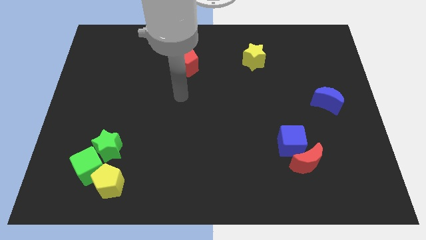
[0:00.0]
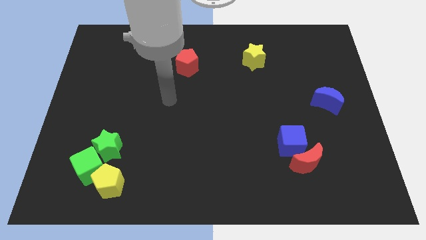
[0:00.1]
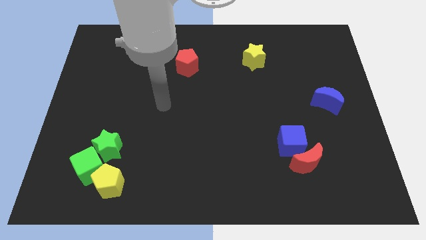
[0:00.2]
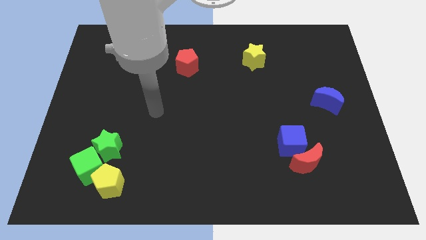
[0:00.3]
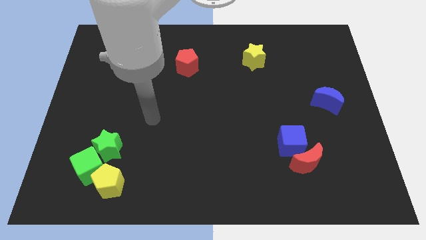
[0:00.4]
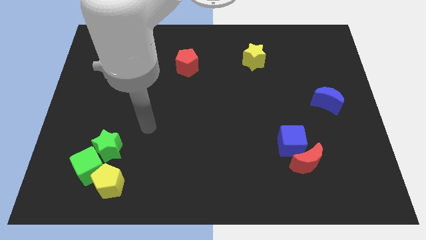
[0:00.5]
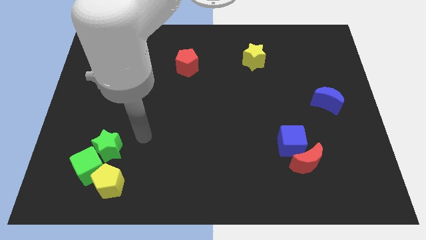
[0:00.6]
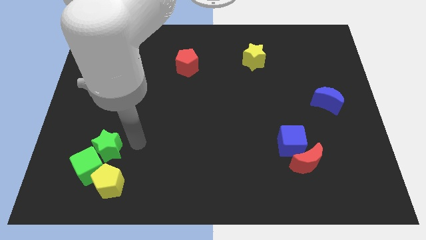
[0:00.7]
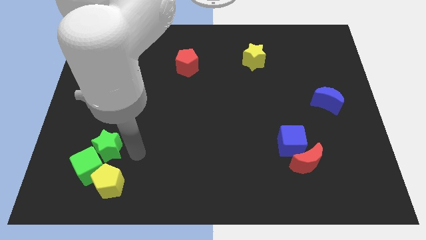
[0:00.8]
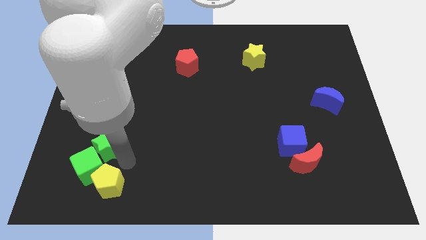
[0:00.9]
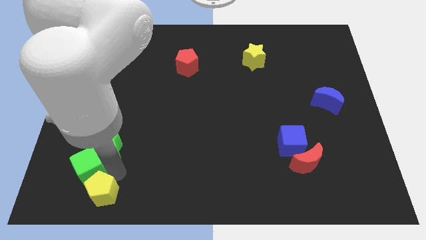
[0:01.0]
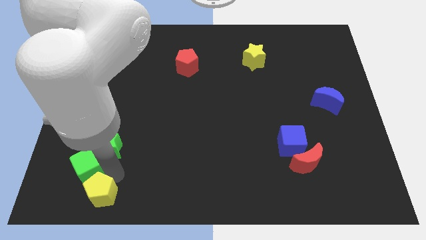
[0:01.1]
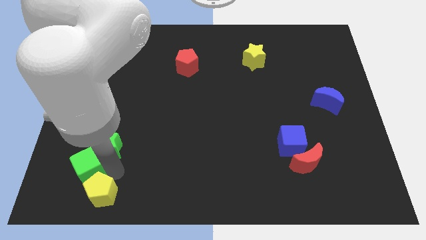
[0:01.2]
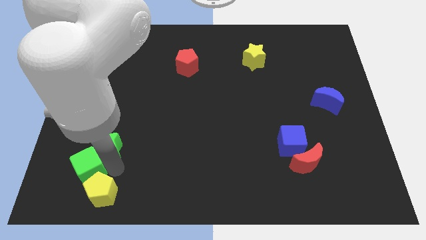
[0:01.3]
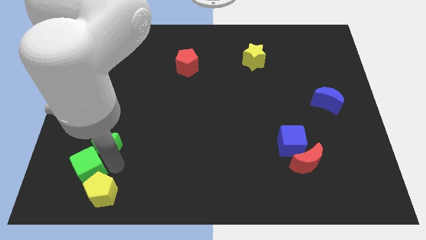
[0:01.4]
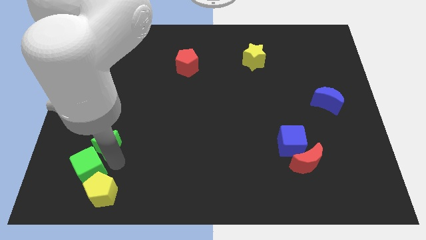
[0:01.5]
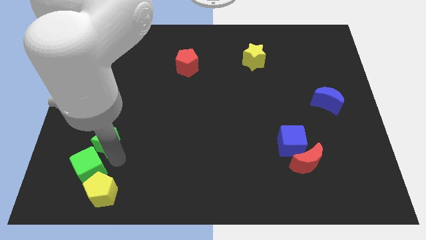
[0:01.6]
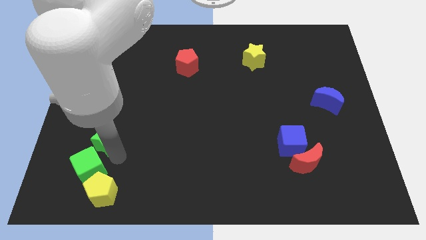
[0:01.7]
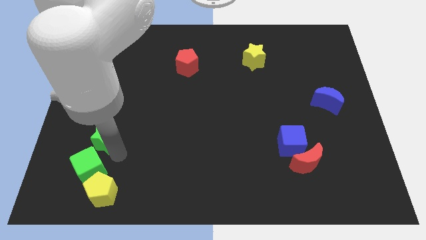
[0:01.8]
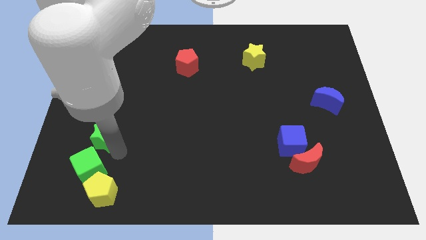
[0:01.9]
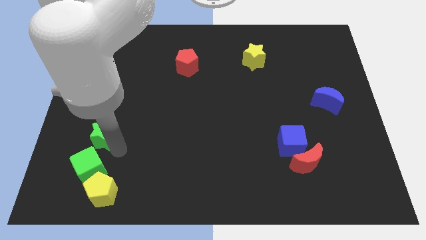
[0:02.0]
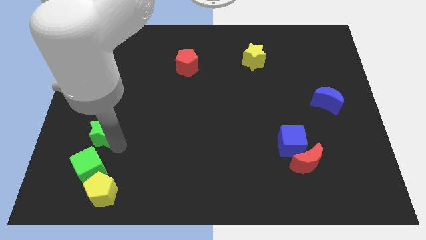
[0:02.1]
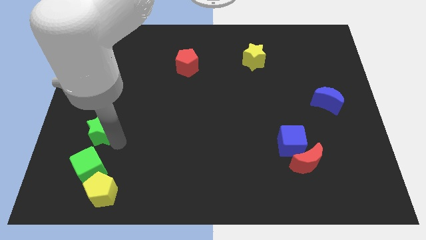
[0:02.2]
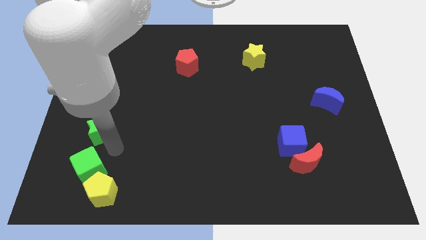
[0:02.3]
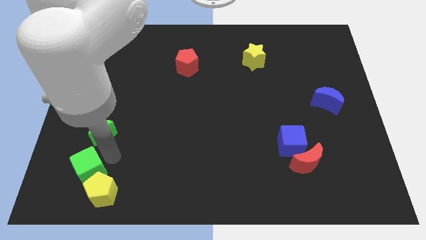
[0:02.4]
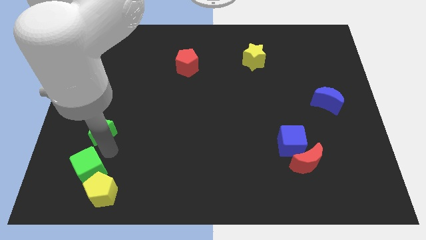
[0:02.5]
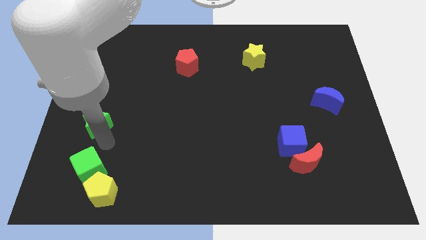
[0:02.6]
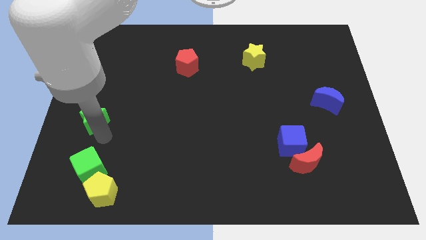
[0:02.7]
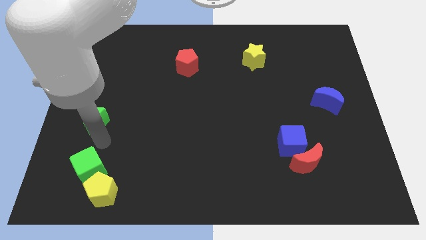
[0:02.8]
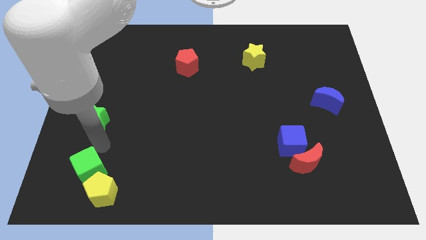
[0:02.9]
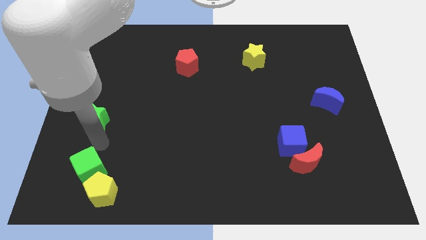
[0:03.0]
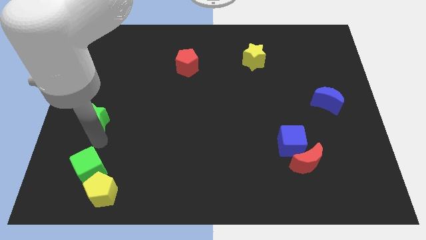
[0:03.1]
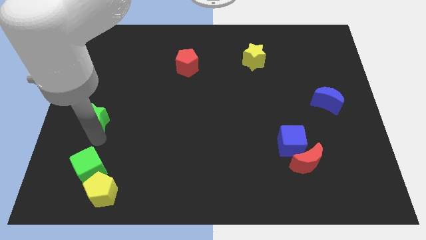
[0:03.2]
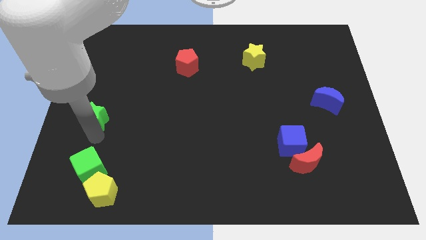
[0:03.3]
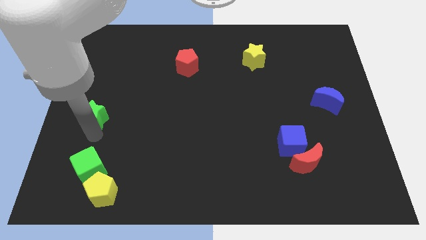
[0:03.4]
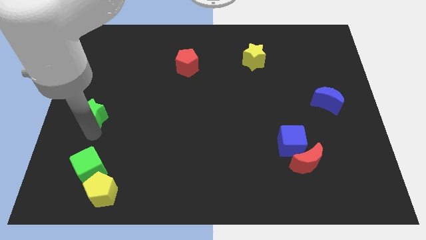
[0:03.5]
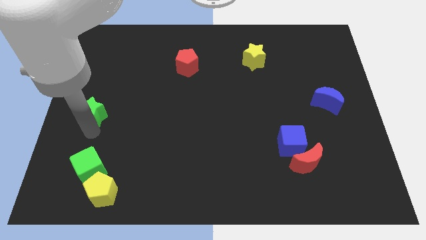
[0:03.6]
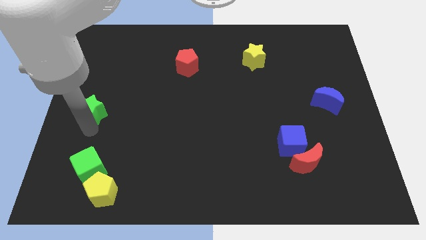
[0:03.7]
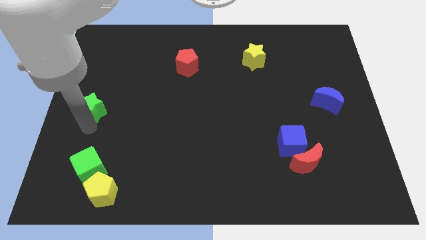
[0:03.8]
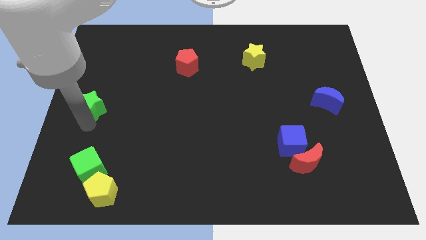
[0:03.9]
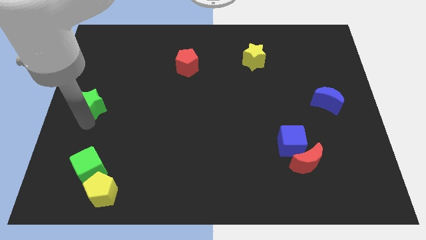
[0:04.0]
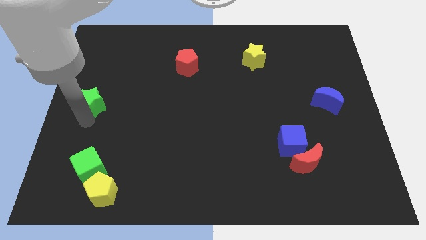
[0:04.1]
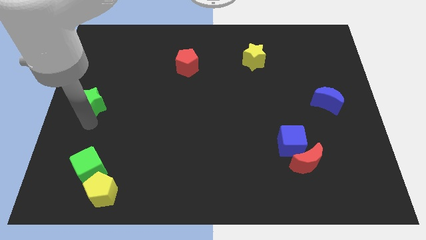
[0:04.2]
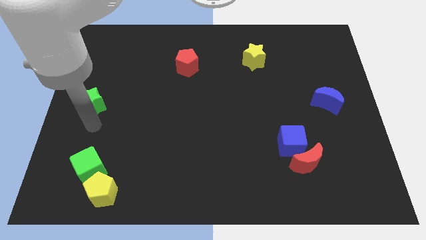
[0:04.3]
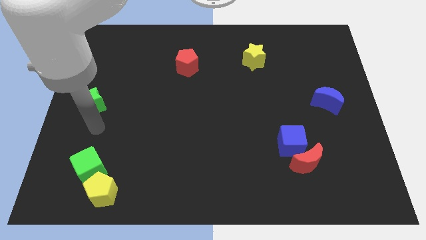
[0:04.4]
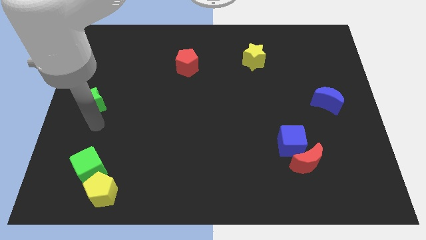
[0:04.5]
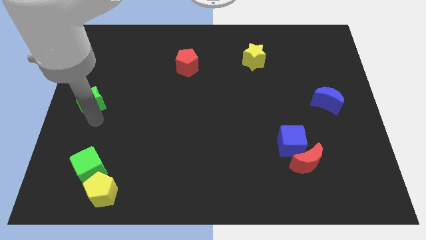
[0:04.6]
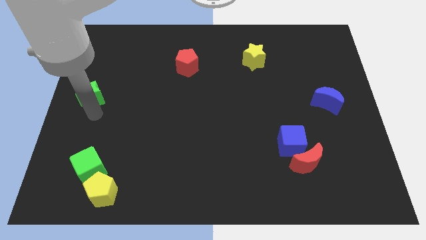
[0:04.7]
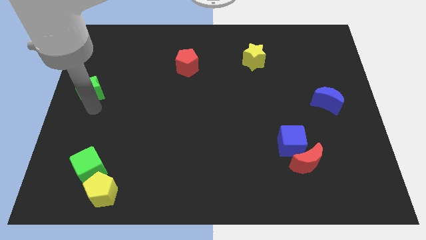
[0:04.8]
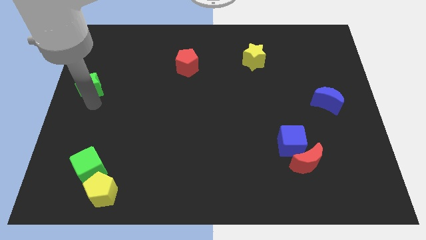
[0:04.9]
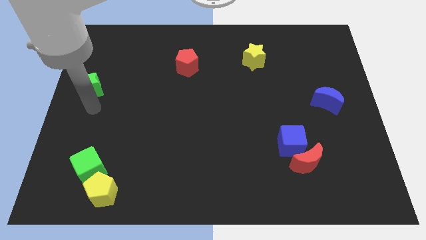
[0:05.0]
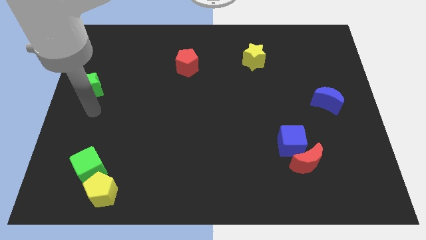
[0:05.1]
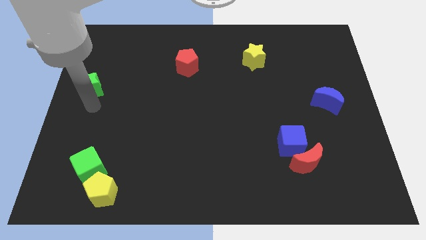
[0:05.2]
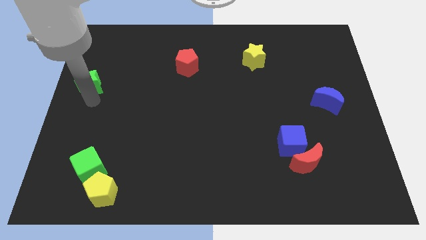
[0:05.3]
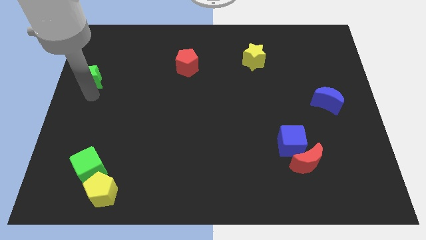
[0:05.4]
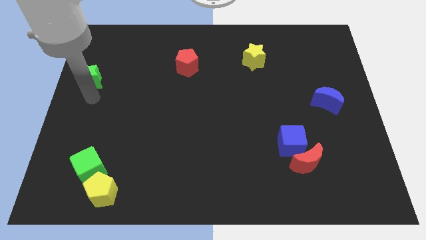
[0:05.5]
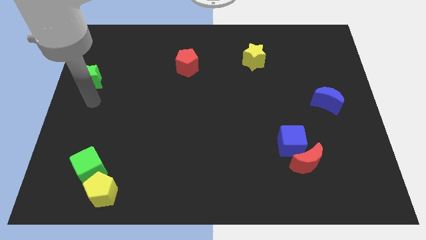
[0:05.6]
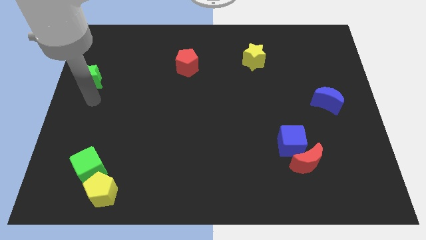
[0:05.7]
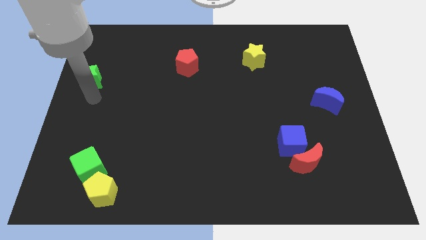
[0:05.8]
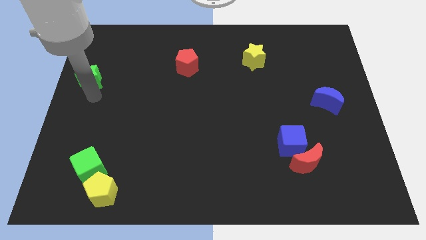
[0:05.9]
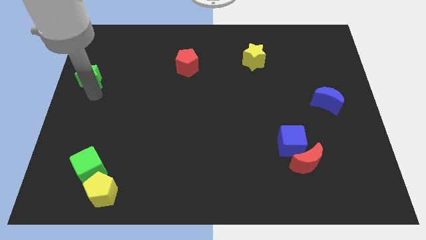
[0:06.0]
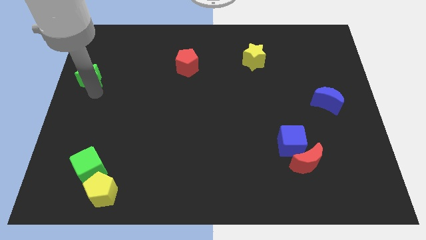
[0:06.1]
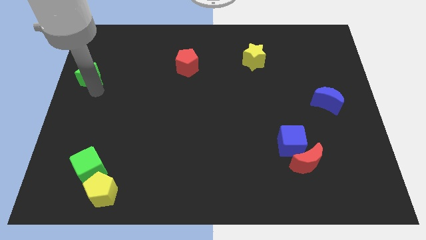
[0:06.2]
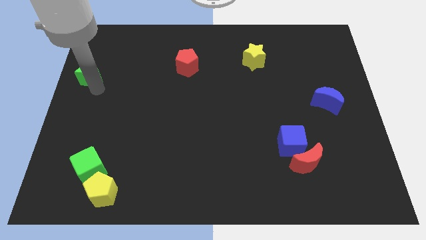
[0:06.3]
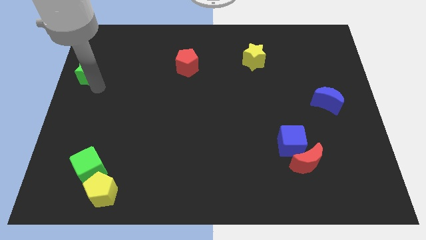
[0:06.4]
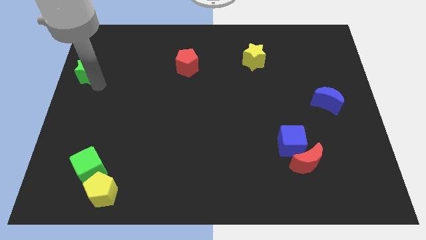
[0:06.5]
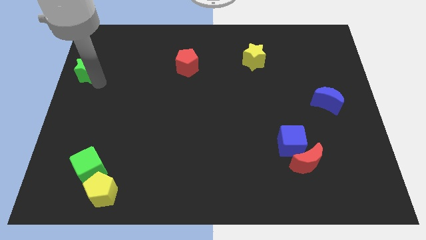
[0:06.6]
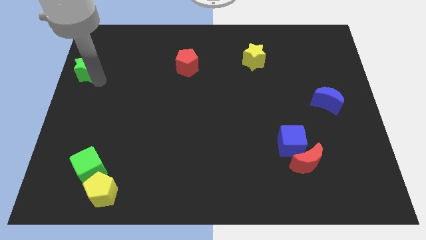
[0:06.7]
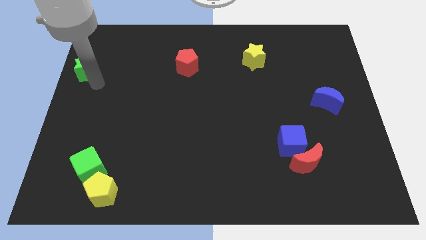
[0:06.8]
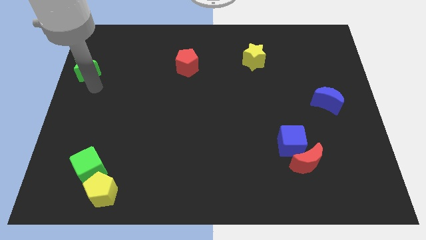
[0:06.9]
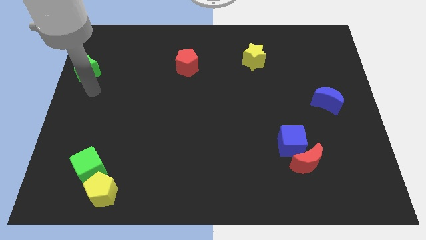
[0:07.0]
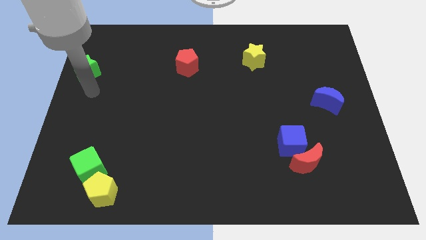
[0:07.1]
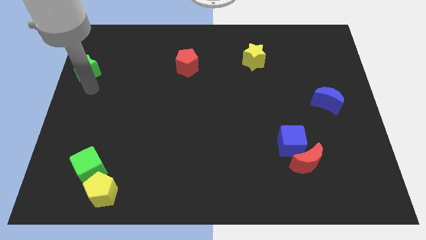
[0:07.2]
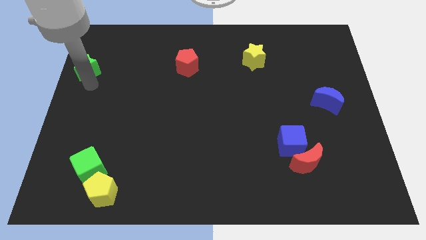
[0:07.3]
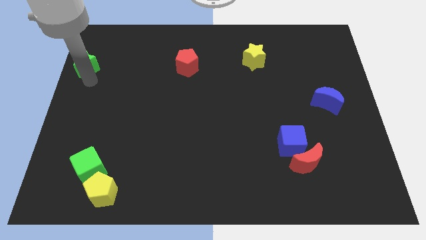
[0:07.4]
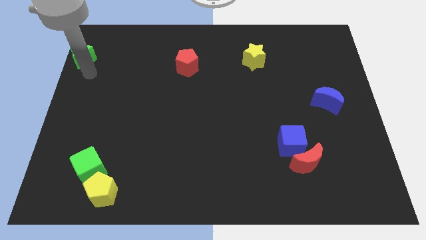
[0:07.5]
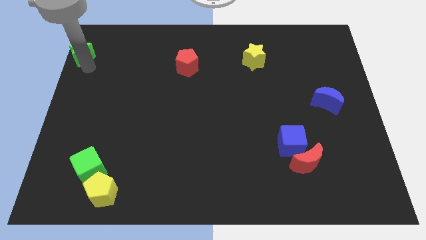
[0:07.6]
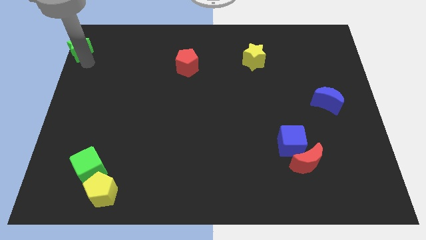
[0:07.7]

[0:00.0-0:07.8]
slide the green star to the upper left corner
